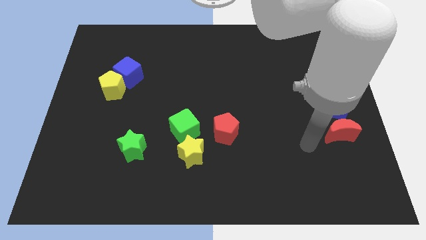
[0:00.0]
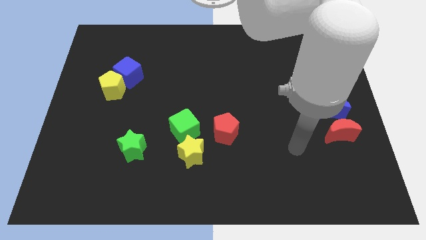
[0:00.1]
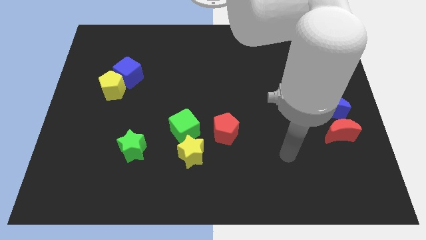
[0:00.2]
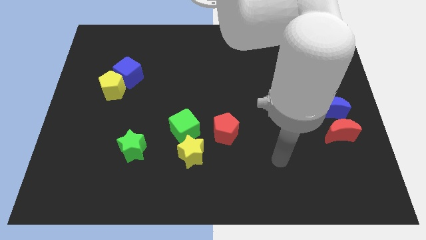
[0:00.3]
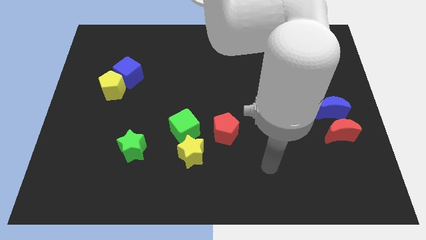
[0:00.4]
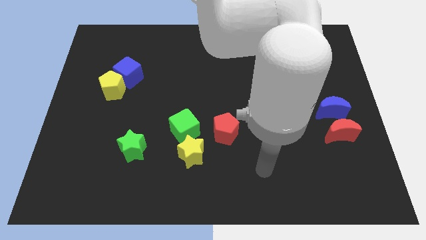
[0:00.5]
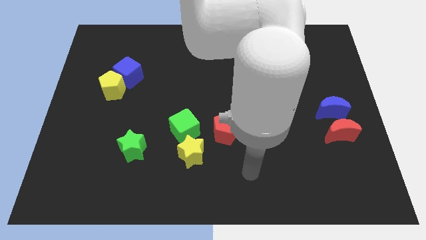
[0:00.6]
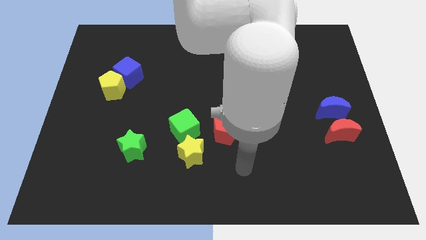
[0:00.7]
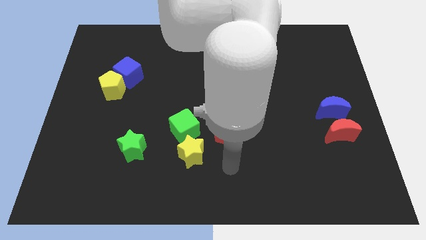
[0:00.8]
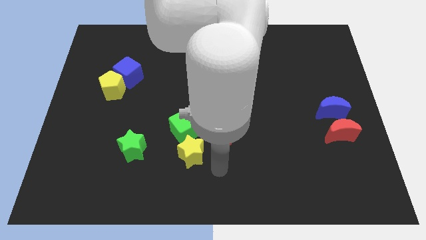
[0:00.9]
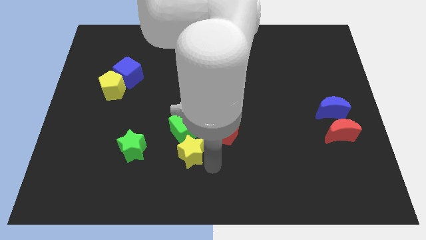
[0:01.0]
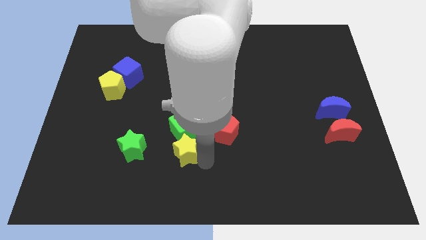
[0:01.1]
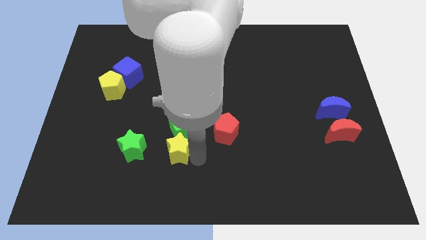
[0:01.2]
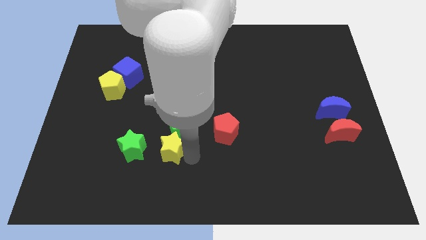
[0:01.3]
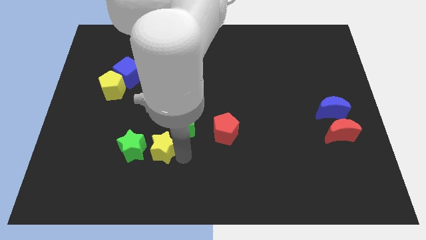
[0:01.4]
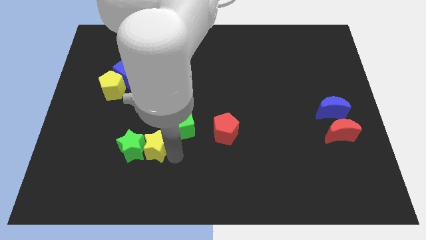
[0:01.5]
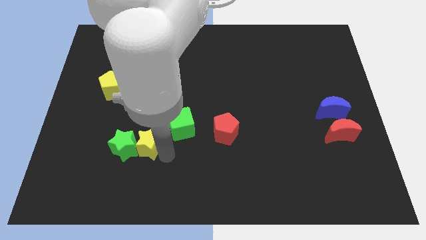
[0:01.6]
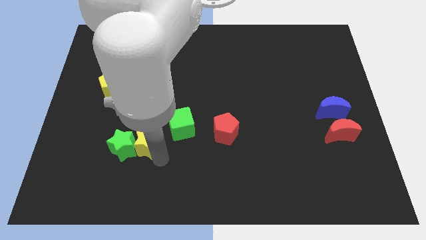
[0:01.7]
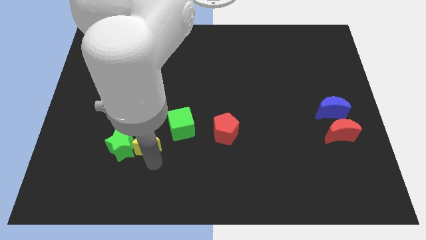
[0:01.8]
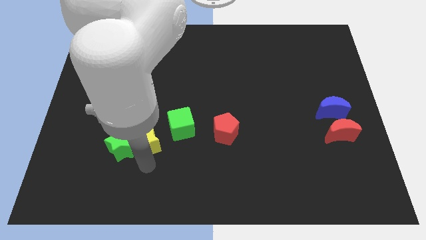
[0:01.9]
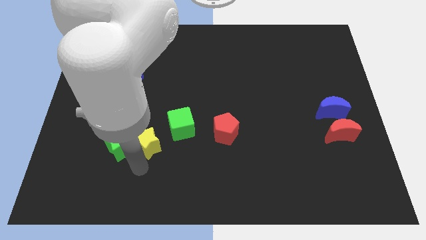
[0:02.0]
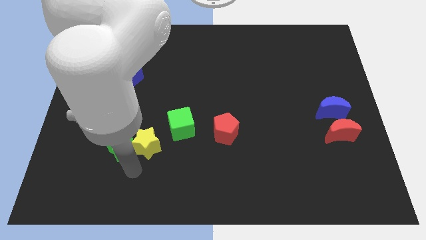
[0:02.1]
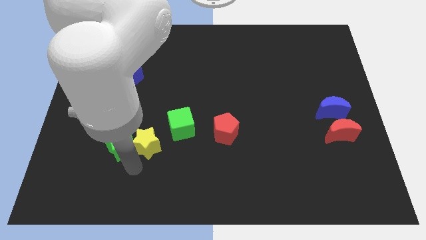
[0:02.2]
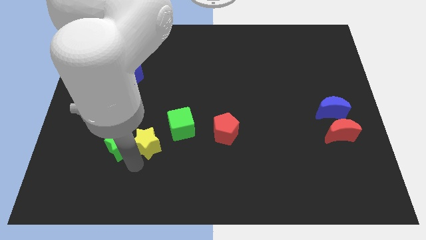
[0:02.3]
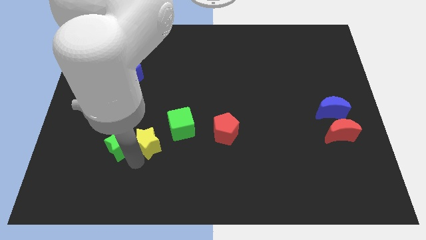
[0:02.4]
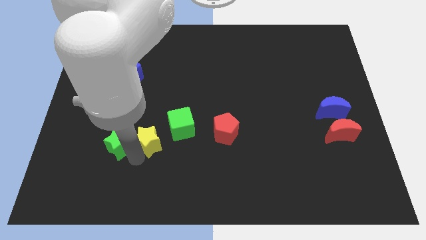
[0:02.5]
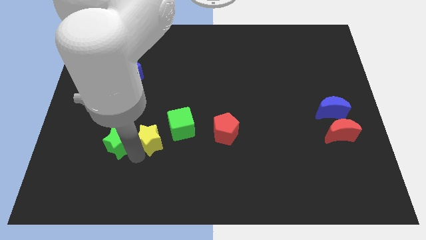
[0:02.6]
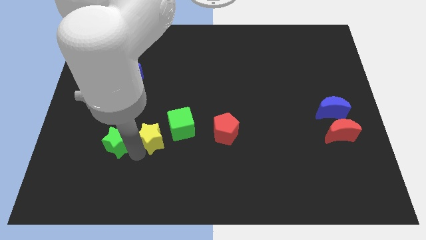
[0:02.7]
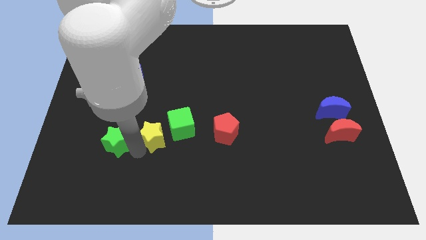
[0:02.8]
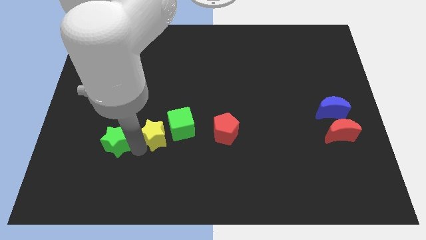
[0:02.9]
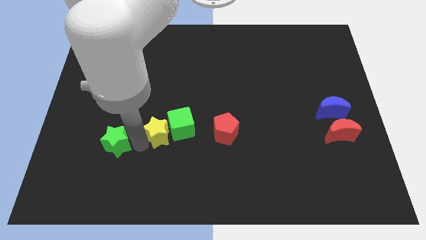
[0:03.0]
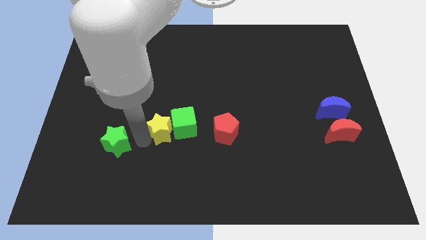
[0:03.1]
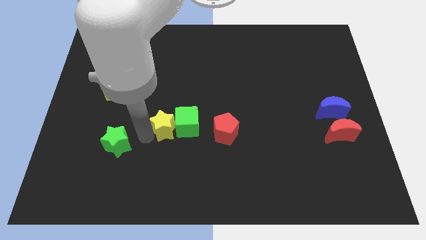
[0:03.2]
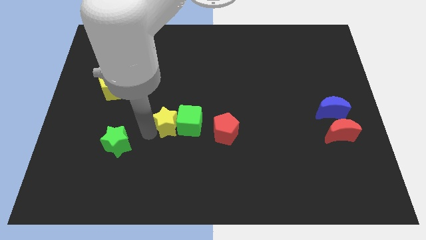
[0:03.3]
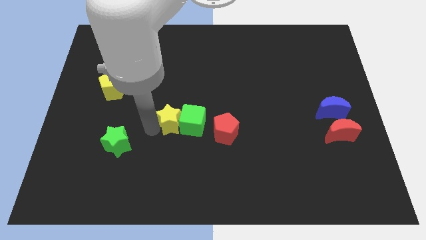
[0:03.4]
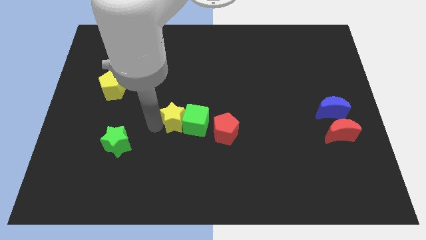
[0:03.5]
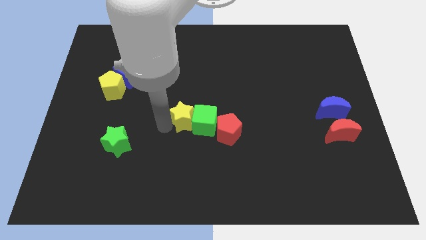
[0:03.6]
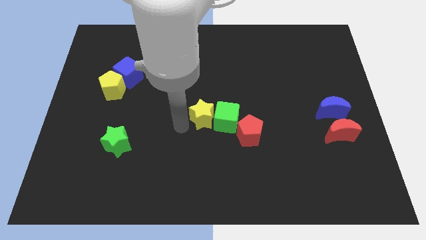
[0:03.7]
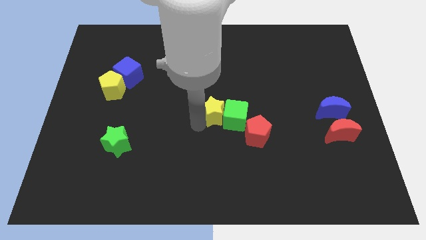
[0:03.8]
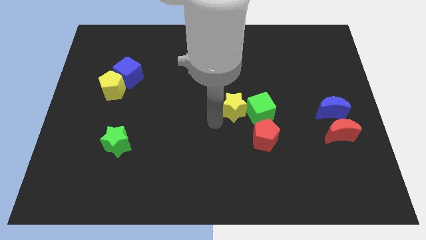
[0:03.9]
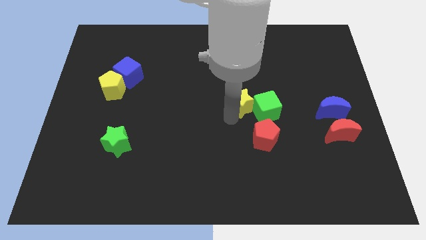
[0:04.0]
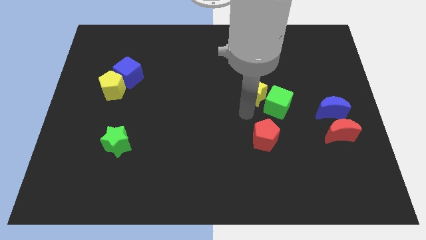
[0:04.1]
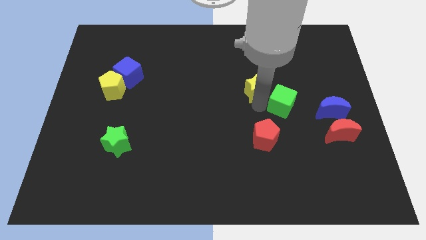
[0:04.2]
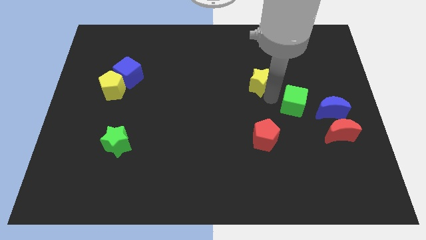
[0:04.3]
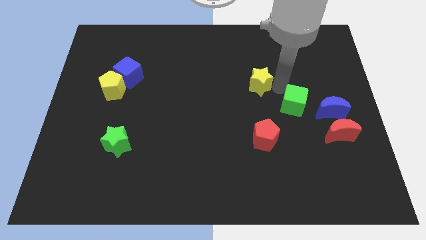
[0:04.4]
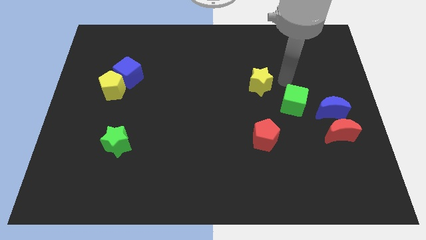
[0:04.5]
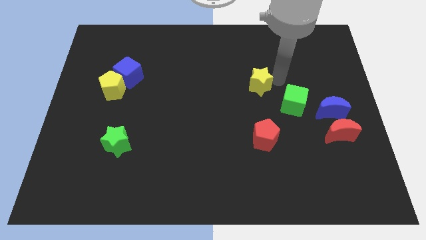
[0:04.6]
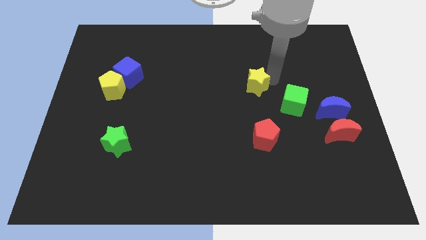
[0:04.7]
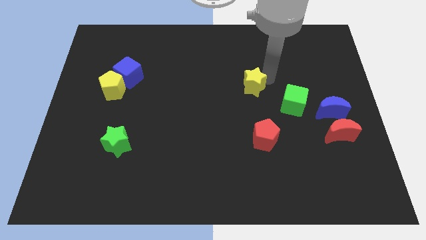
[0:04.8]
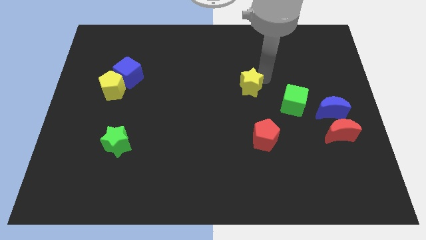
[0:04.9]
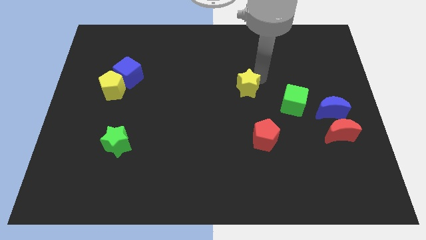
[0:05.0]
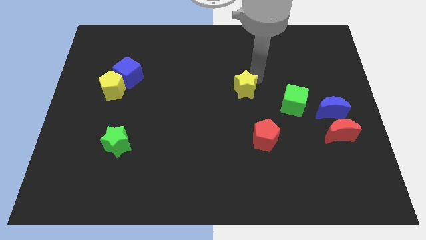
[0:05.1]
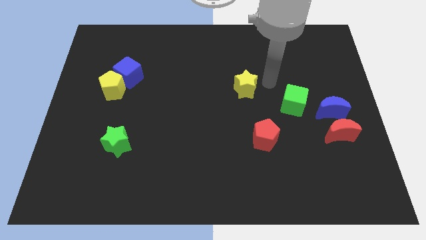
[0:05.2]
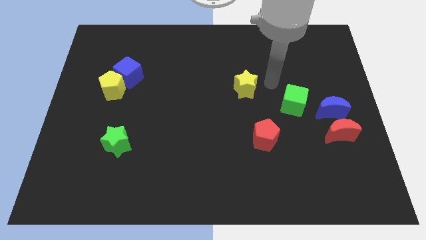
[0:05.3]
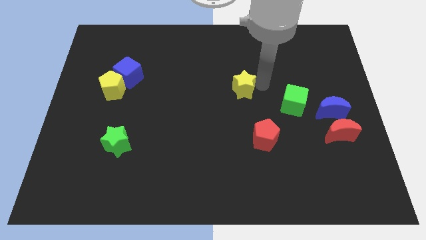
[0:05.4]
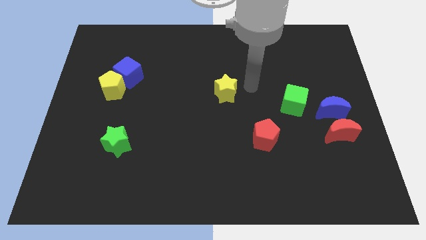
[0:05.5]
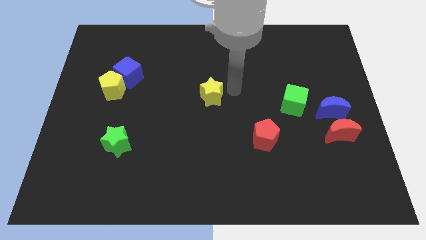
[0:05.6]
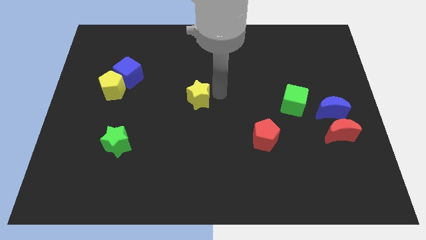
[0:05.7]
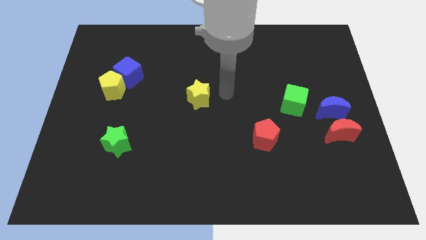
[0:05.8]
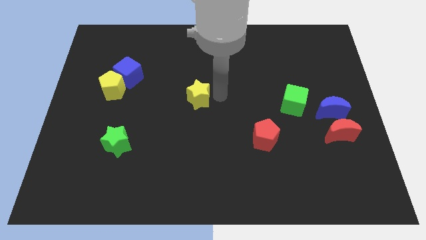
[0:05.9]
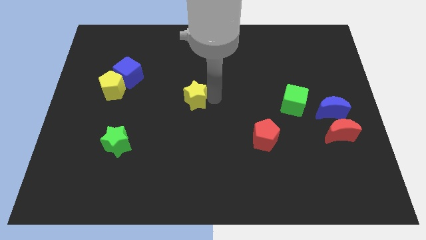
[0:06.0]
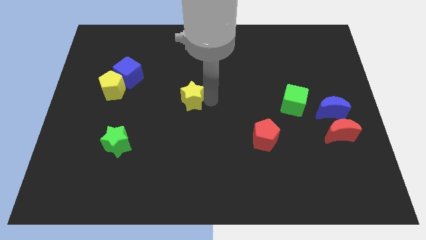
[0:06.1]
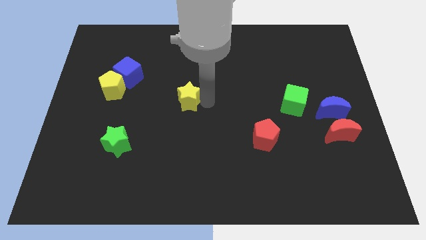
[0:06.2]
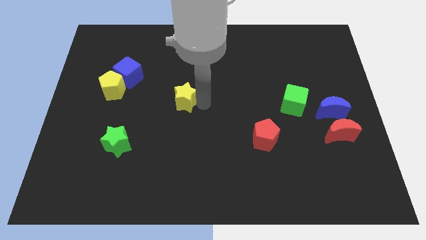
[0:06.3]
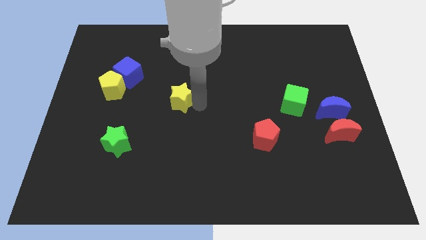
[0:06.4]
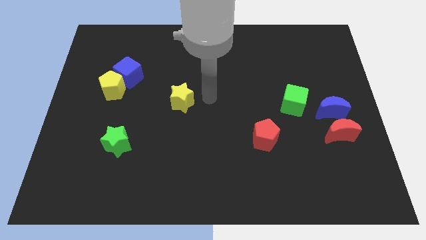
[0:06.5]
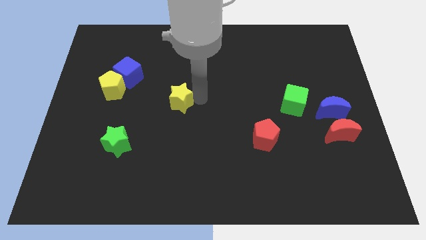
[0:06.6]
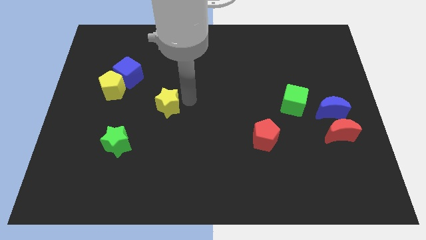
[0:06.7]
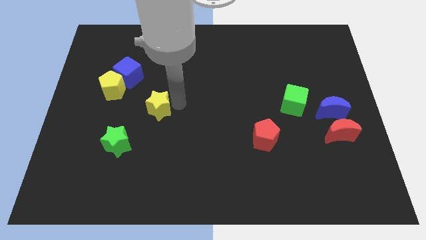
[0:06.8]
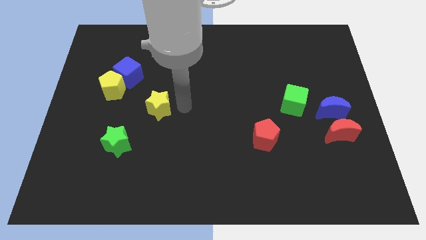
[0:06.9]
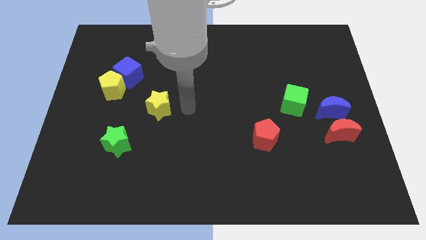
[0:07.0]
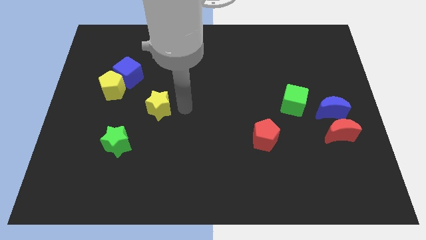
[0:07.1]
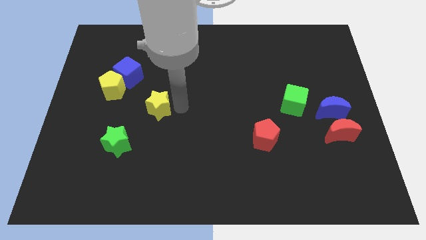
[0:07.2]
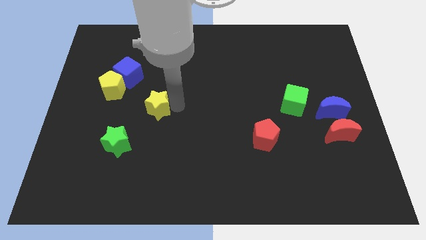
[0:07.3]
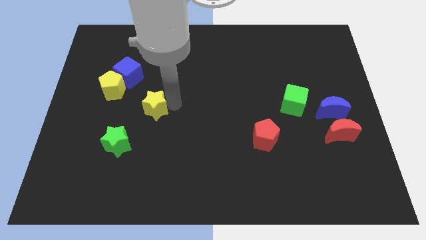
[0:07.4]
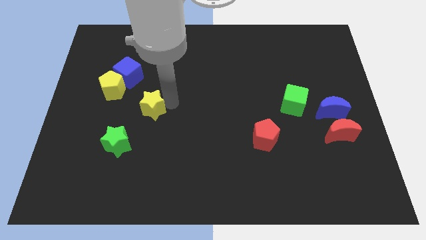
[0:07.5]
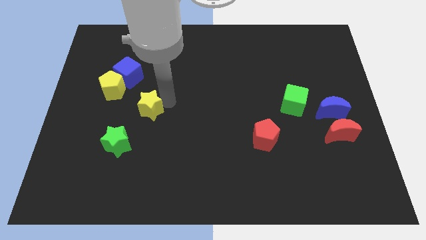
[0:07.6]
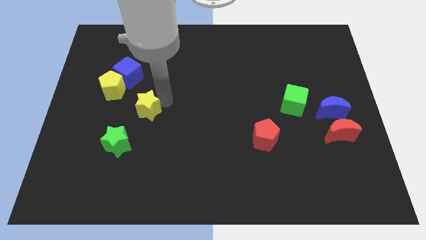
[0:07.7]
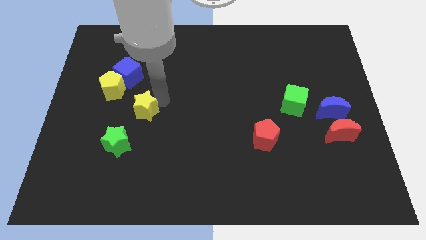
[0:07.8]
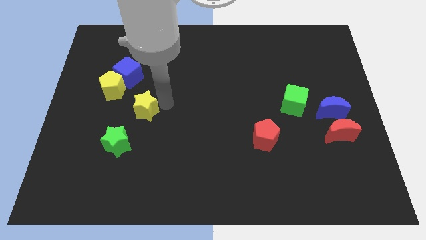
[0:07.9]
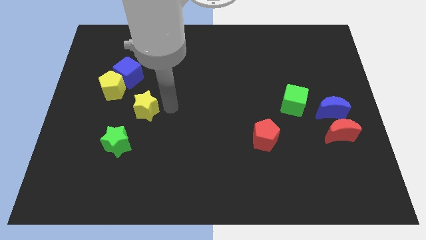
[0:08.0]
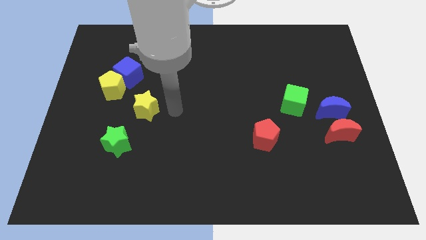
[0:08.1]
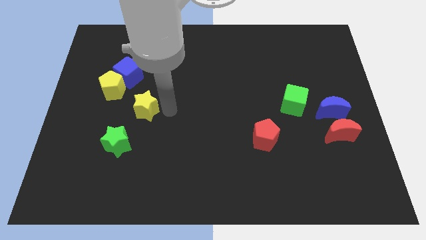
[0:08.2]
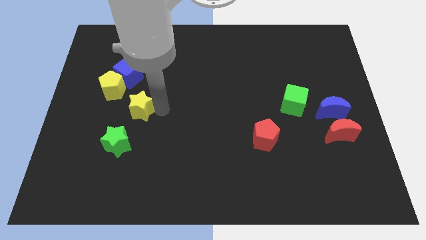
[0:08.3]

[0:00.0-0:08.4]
put the yellow star to the top of the green star
